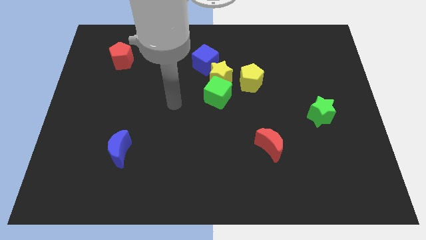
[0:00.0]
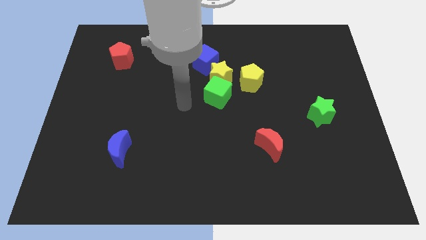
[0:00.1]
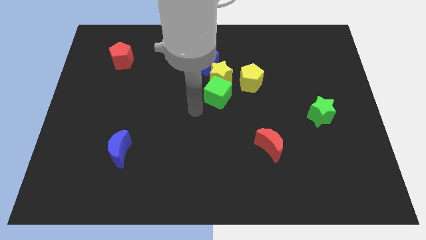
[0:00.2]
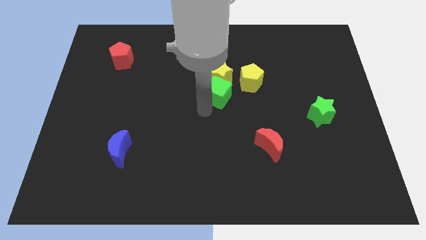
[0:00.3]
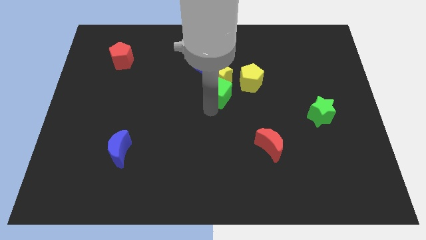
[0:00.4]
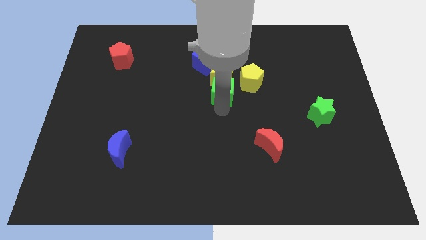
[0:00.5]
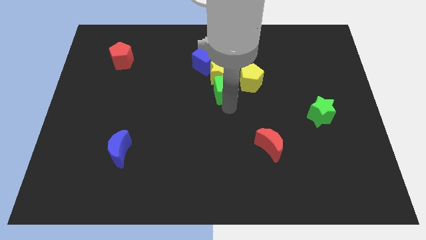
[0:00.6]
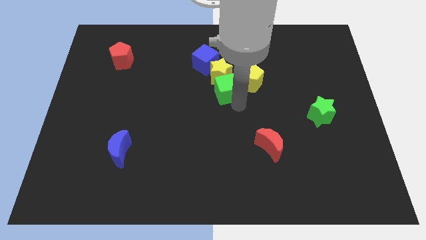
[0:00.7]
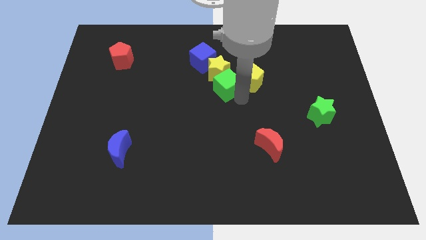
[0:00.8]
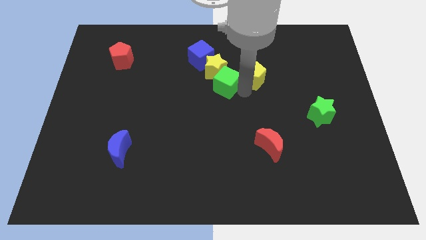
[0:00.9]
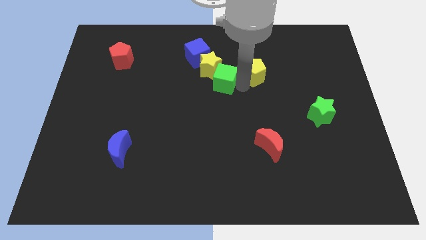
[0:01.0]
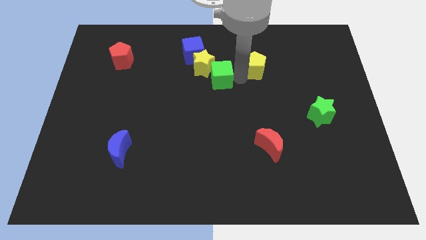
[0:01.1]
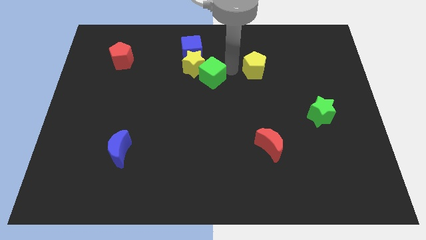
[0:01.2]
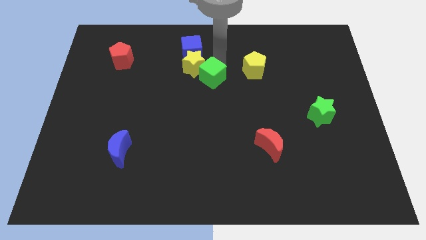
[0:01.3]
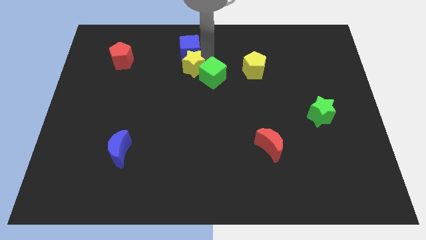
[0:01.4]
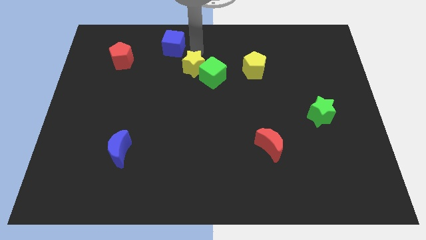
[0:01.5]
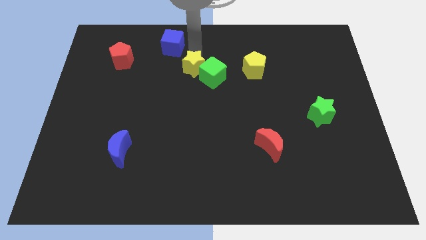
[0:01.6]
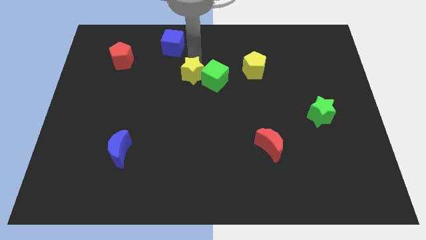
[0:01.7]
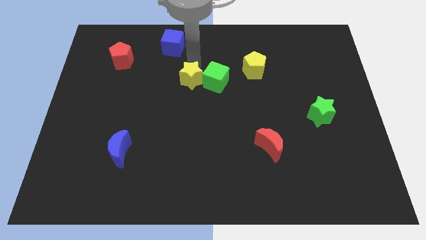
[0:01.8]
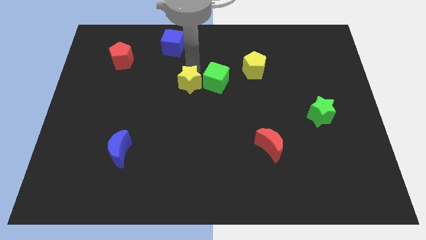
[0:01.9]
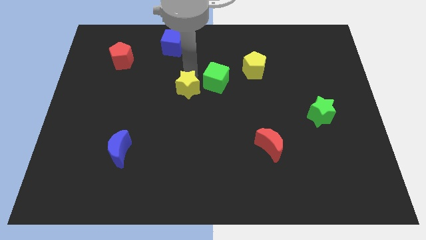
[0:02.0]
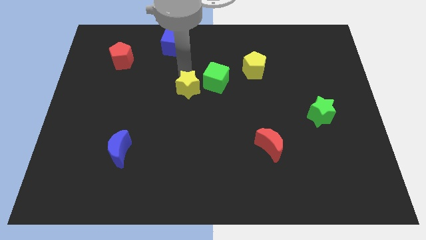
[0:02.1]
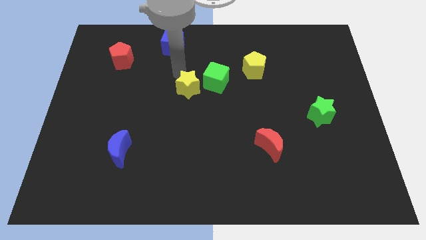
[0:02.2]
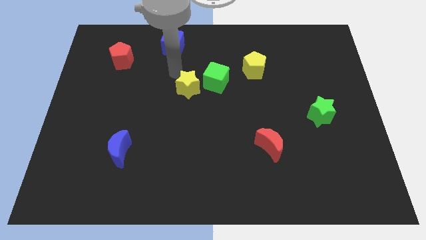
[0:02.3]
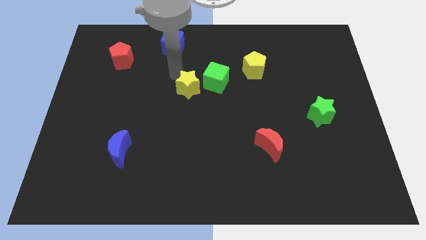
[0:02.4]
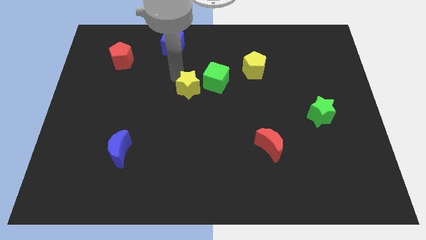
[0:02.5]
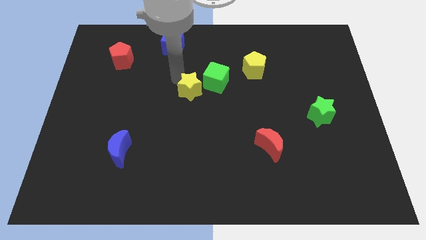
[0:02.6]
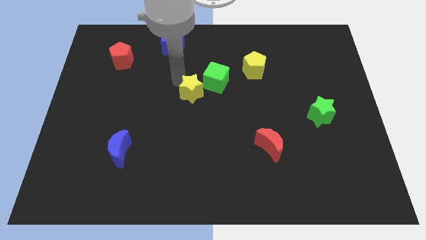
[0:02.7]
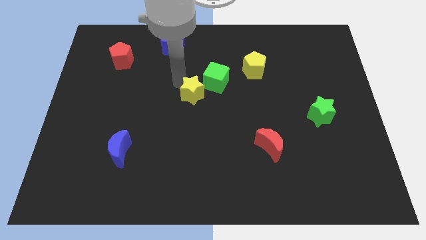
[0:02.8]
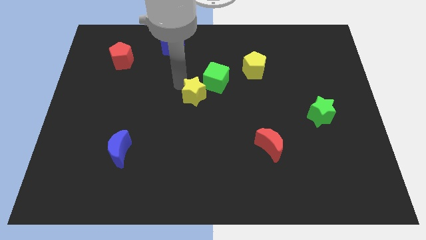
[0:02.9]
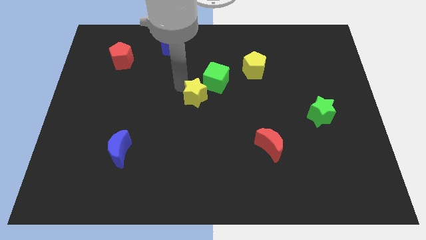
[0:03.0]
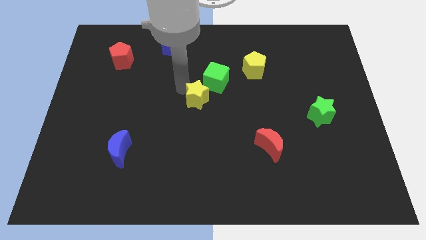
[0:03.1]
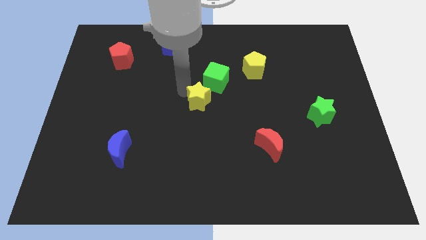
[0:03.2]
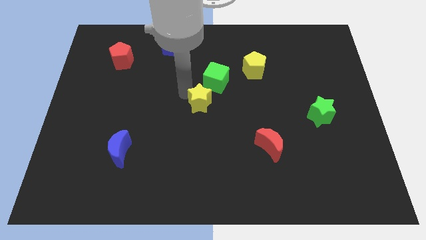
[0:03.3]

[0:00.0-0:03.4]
push the yellow star downwards slightly

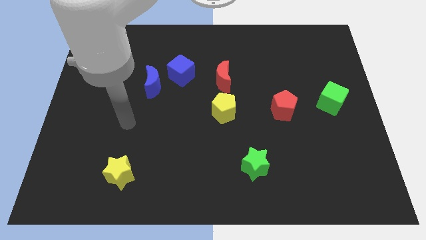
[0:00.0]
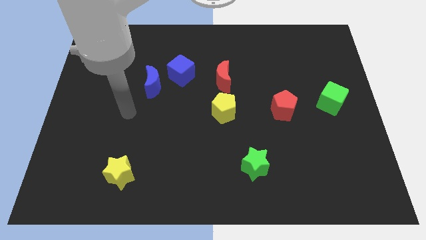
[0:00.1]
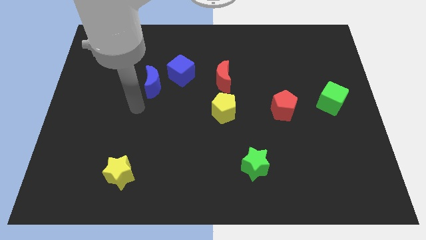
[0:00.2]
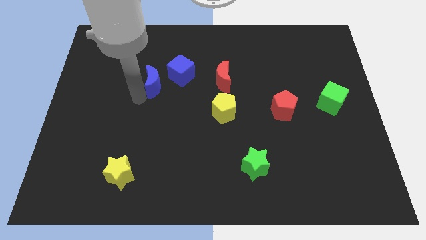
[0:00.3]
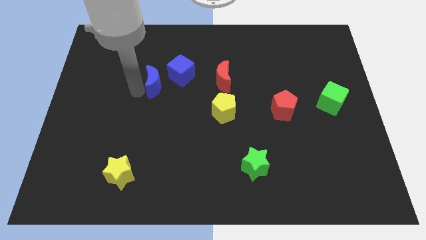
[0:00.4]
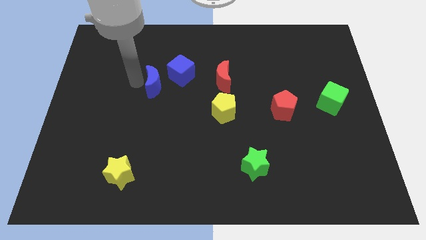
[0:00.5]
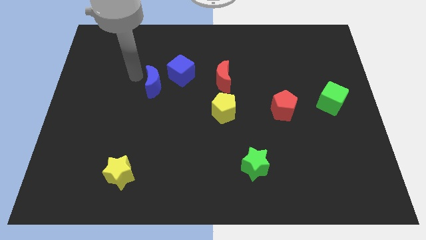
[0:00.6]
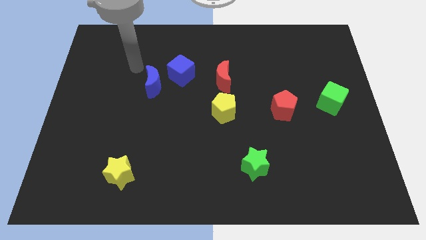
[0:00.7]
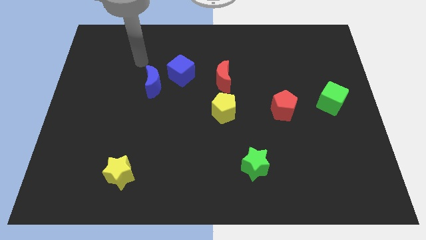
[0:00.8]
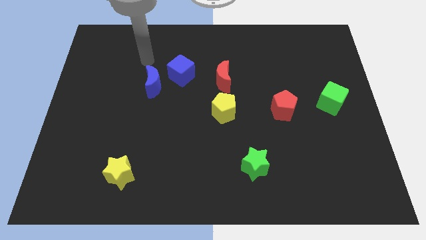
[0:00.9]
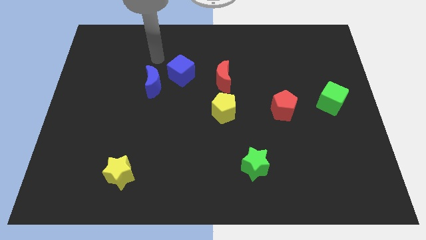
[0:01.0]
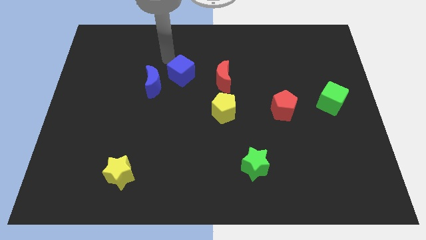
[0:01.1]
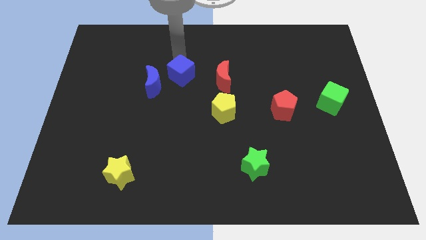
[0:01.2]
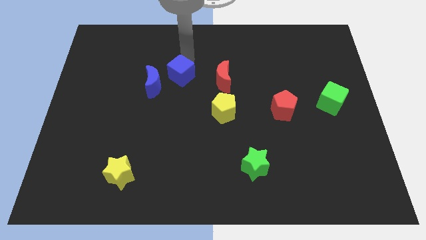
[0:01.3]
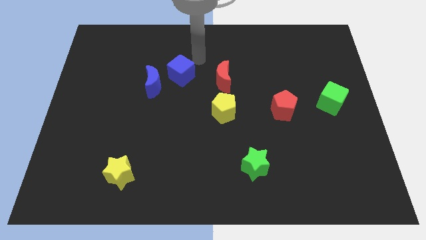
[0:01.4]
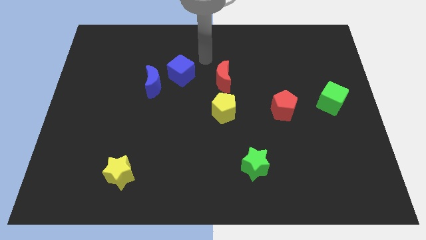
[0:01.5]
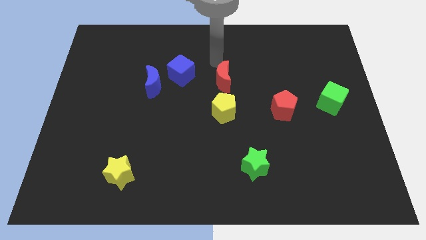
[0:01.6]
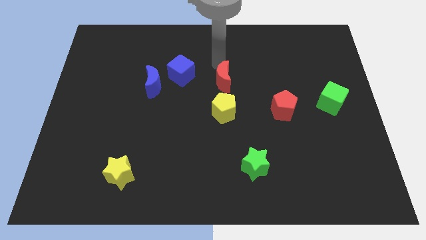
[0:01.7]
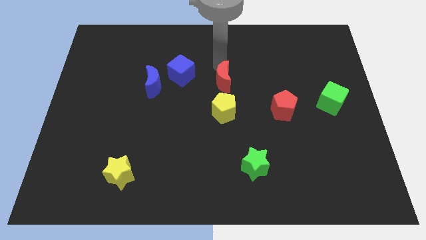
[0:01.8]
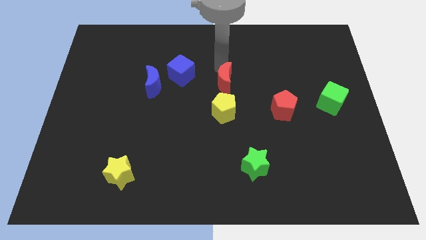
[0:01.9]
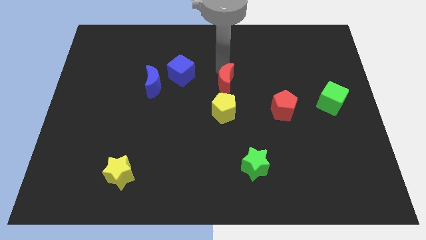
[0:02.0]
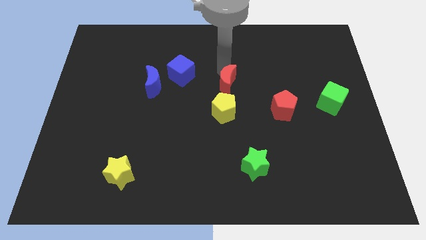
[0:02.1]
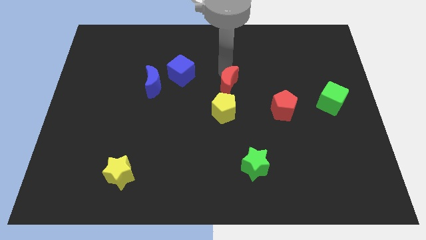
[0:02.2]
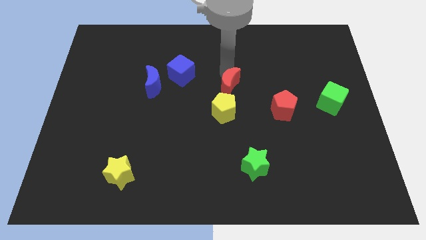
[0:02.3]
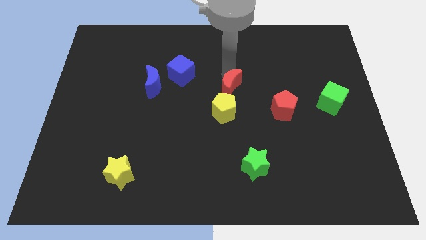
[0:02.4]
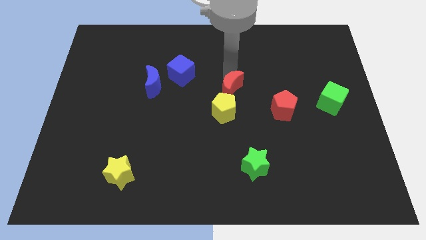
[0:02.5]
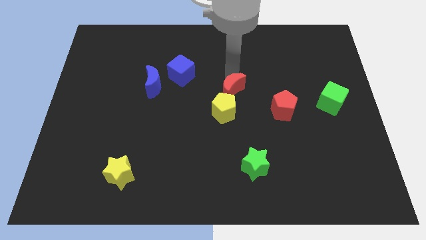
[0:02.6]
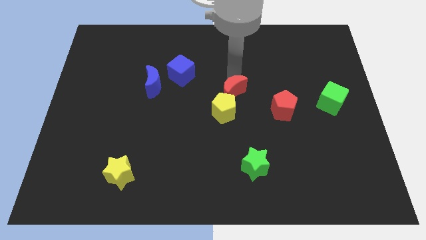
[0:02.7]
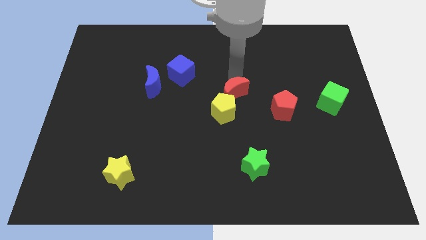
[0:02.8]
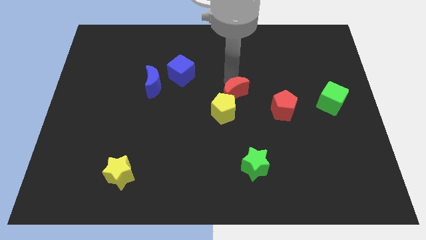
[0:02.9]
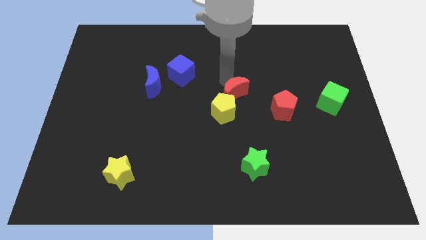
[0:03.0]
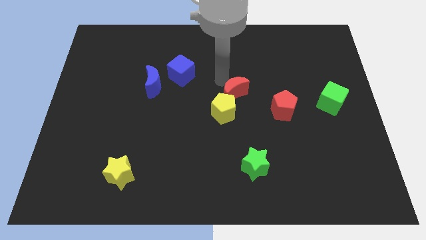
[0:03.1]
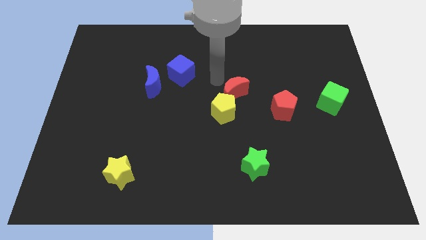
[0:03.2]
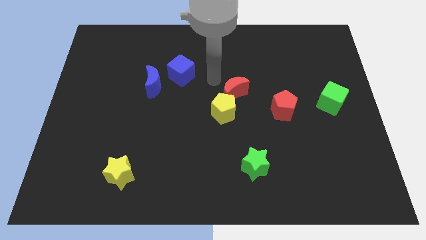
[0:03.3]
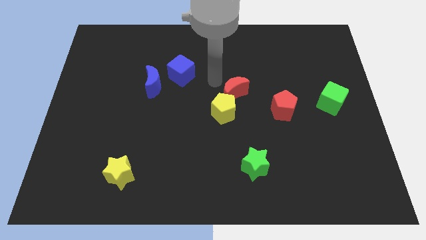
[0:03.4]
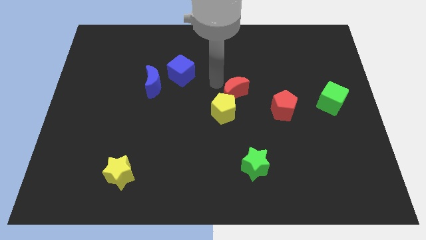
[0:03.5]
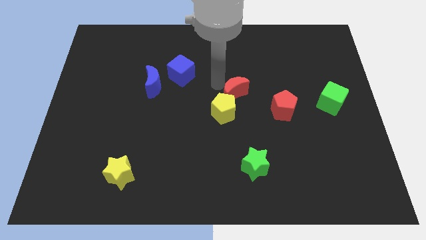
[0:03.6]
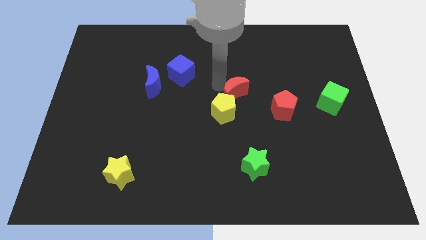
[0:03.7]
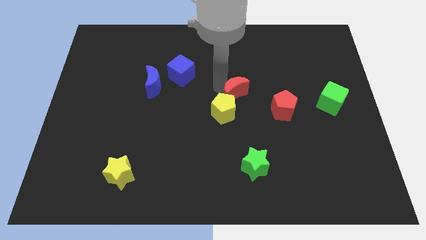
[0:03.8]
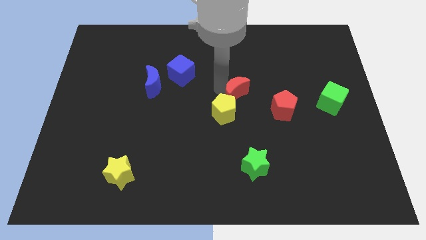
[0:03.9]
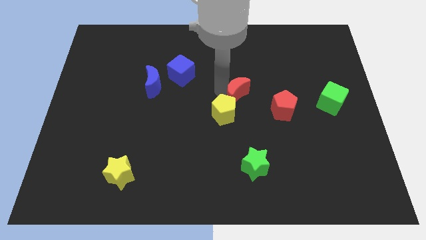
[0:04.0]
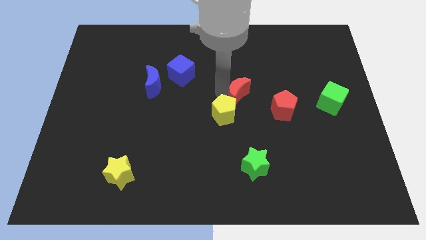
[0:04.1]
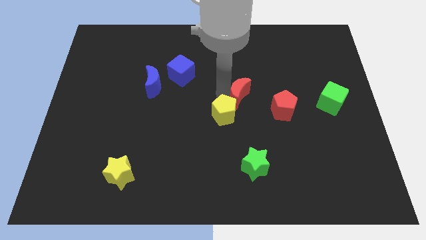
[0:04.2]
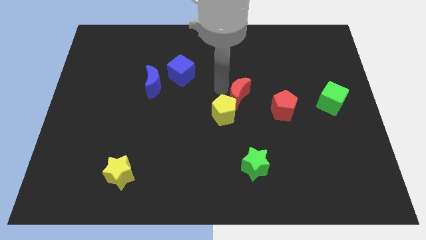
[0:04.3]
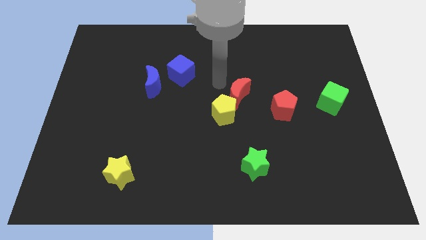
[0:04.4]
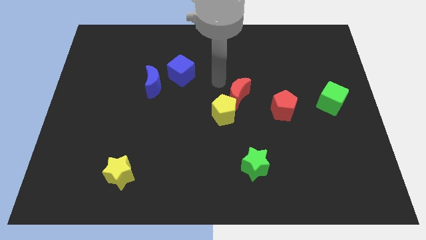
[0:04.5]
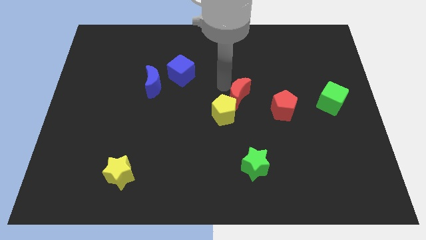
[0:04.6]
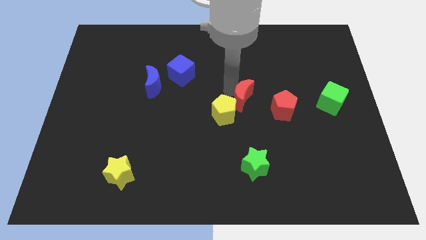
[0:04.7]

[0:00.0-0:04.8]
slide the red moon a bit down and right diagonally
